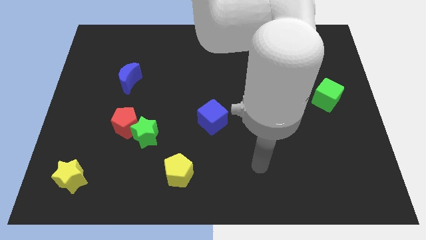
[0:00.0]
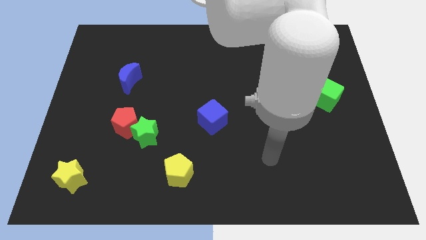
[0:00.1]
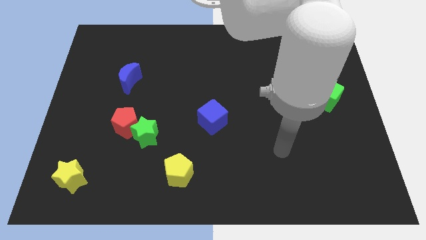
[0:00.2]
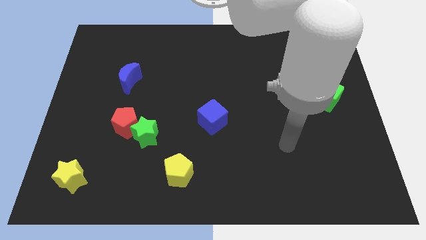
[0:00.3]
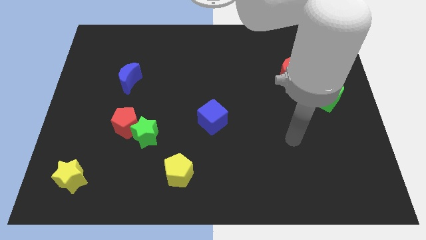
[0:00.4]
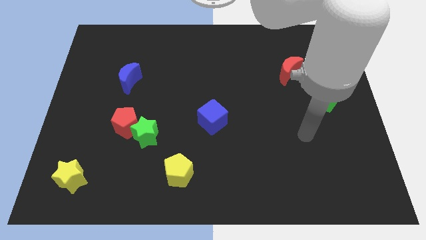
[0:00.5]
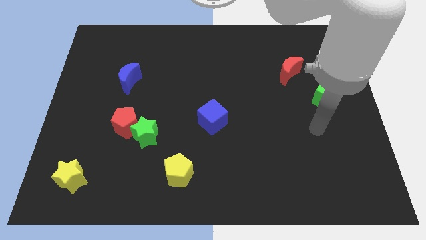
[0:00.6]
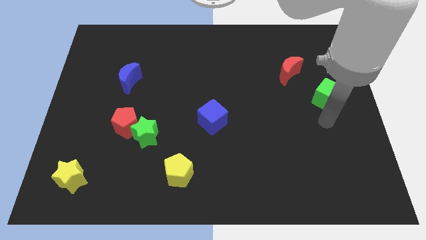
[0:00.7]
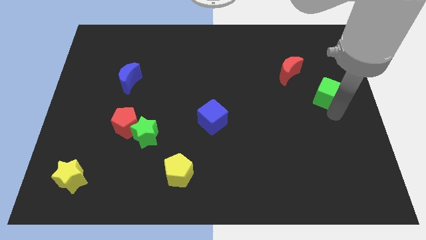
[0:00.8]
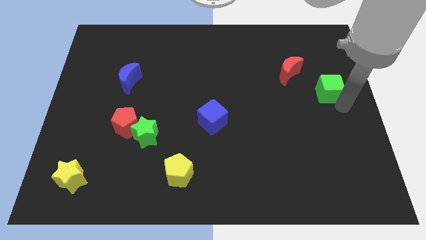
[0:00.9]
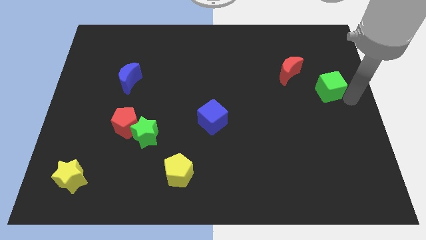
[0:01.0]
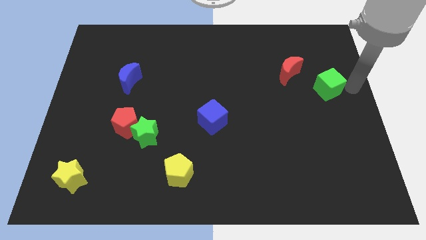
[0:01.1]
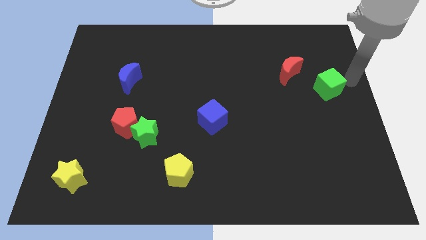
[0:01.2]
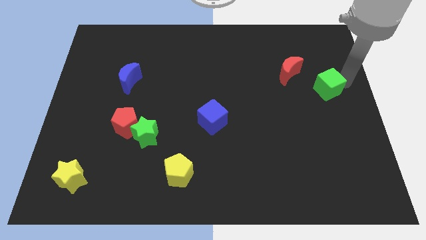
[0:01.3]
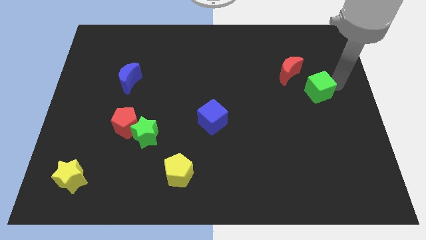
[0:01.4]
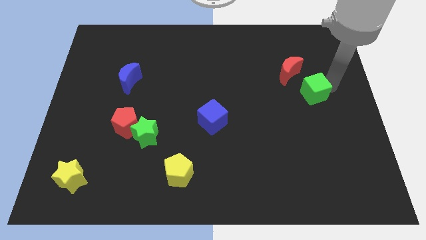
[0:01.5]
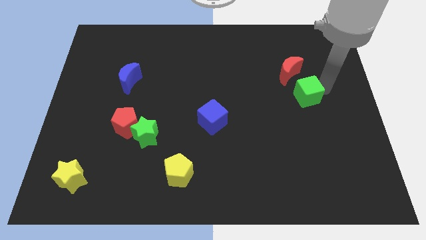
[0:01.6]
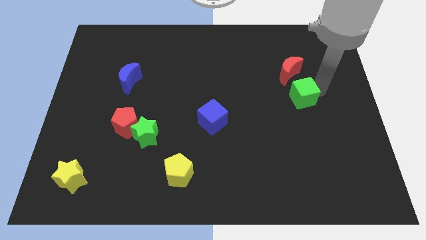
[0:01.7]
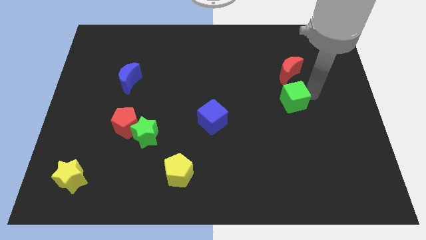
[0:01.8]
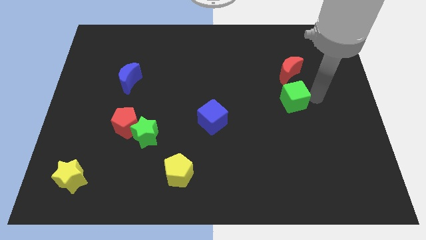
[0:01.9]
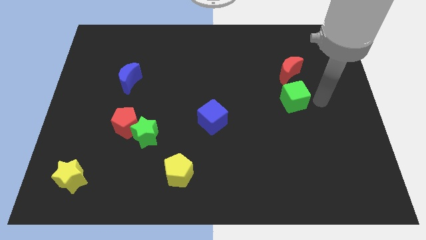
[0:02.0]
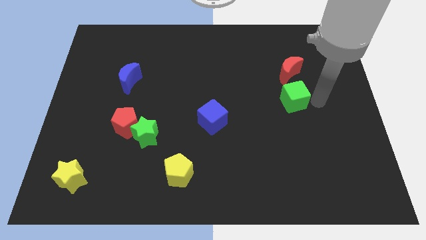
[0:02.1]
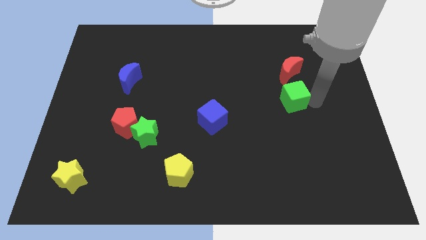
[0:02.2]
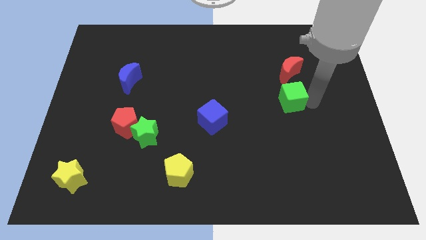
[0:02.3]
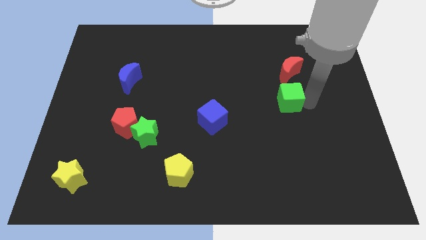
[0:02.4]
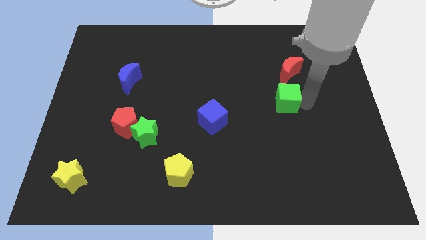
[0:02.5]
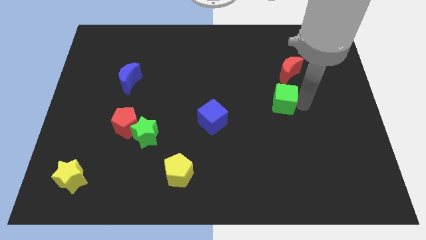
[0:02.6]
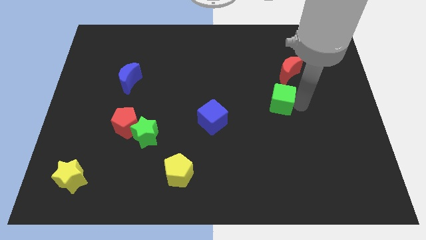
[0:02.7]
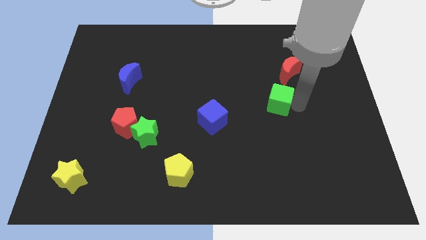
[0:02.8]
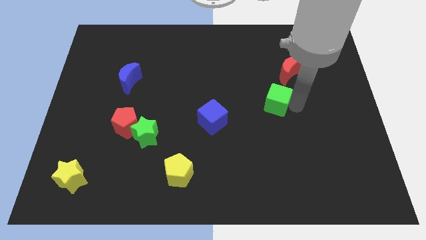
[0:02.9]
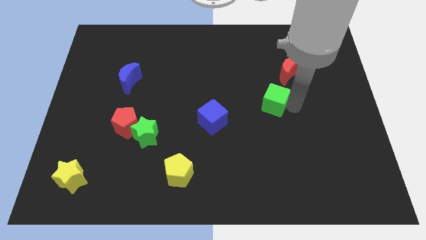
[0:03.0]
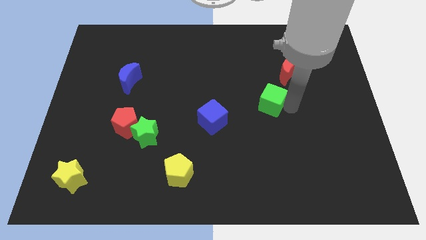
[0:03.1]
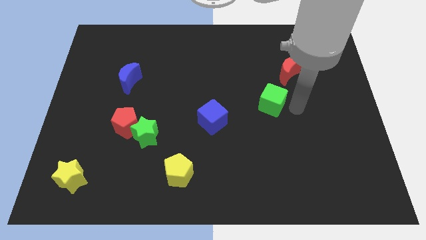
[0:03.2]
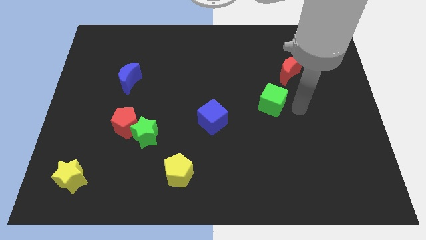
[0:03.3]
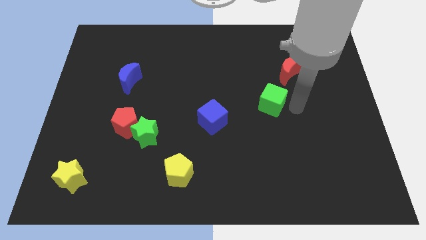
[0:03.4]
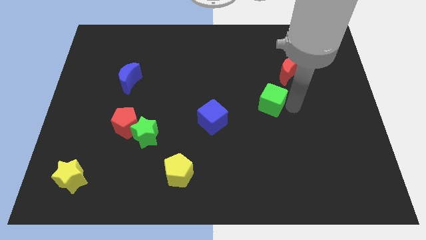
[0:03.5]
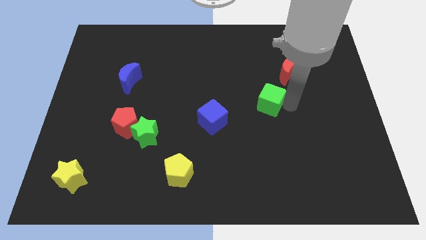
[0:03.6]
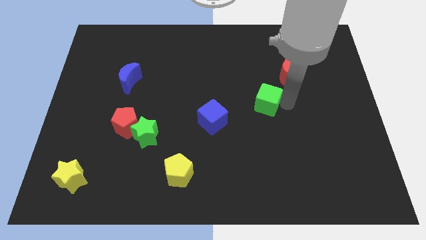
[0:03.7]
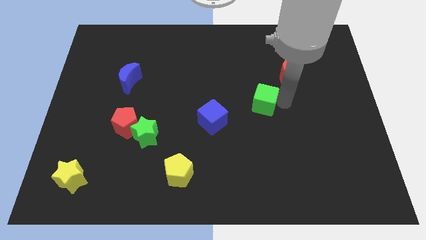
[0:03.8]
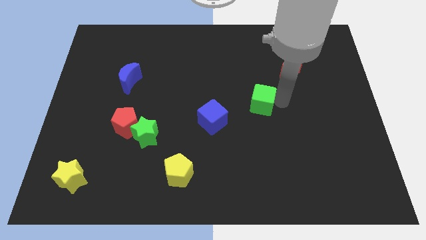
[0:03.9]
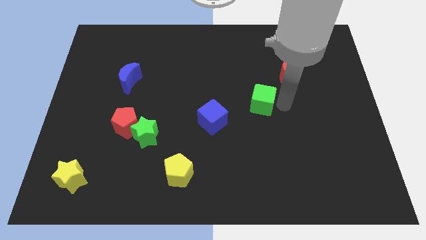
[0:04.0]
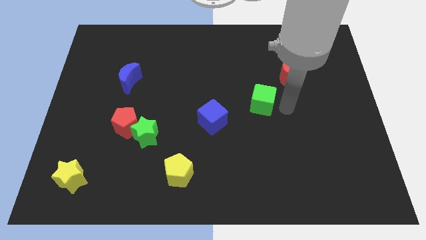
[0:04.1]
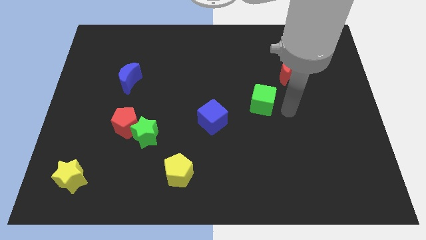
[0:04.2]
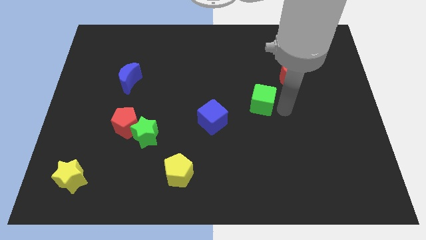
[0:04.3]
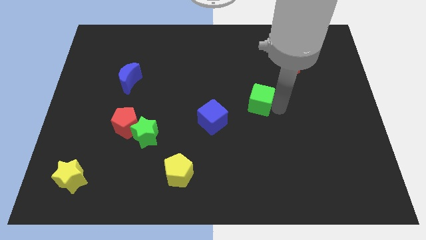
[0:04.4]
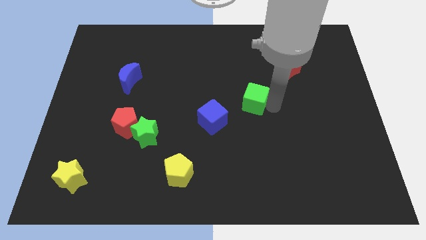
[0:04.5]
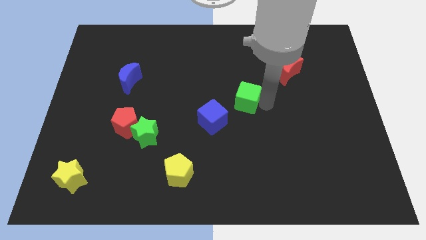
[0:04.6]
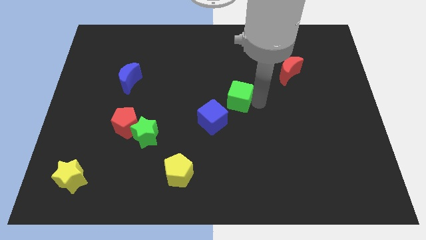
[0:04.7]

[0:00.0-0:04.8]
move the green cube left

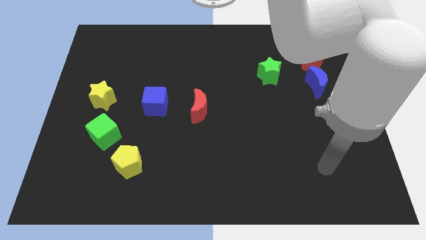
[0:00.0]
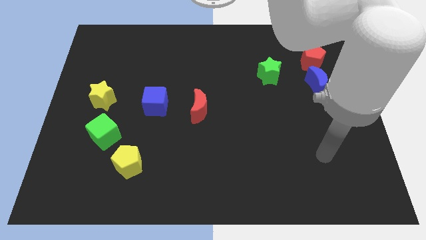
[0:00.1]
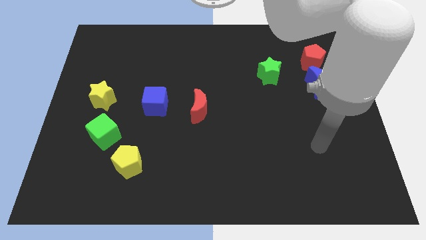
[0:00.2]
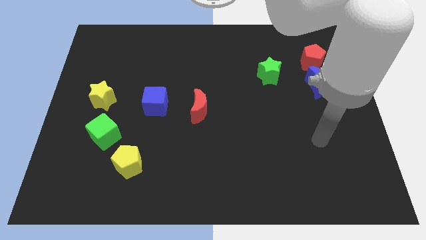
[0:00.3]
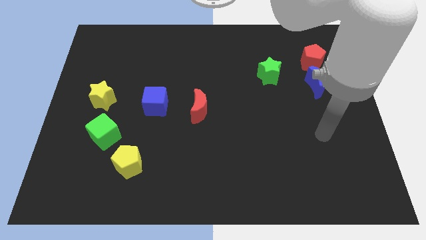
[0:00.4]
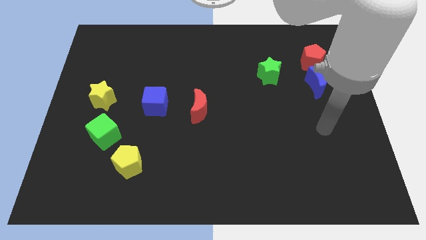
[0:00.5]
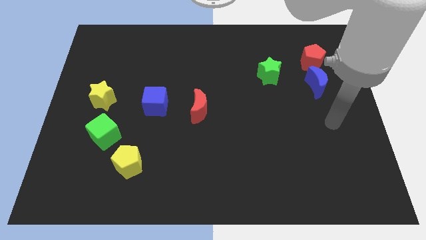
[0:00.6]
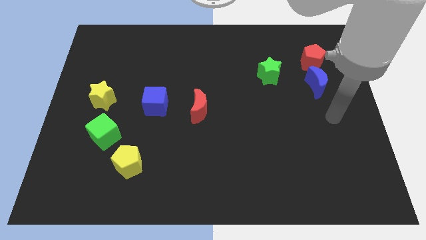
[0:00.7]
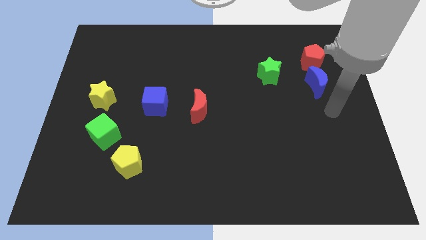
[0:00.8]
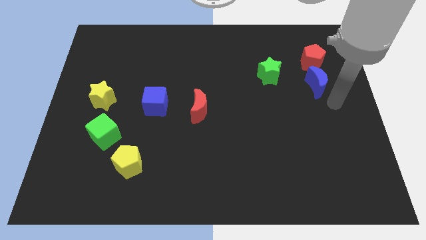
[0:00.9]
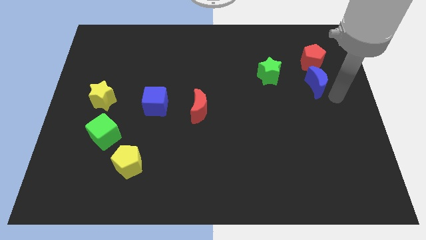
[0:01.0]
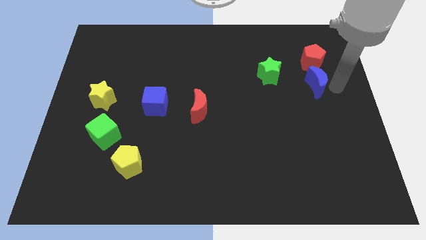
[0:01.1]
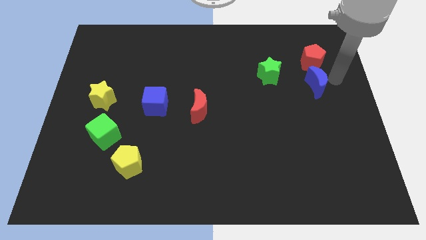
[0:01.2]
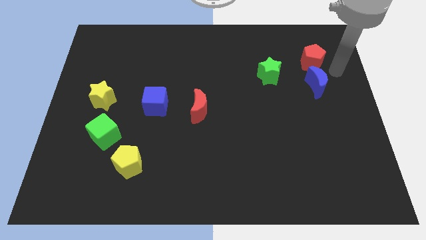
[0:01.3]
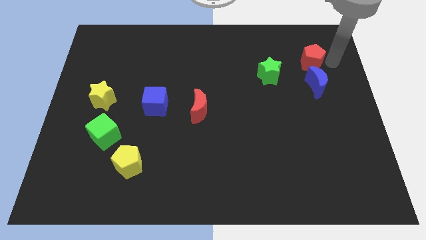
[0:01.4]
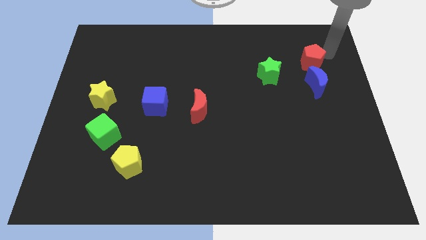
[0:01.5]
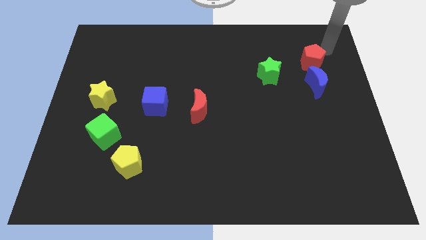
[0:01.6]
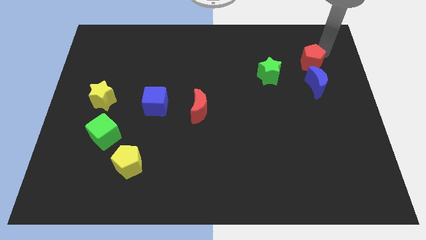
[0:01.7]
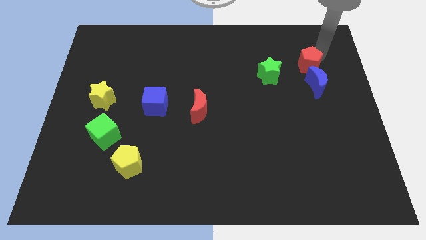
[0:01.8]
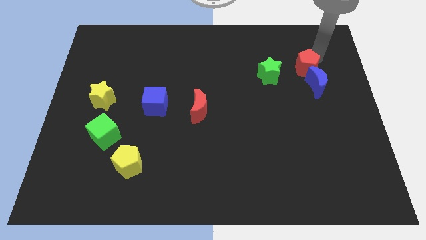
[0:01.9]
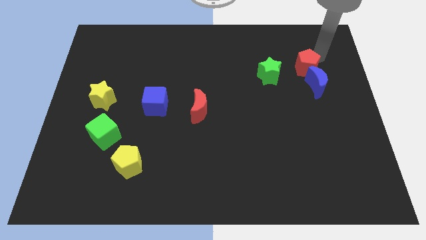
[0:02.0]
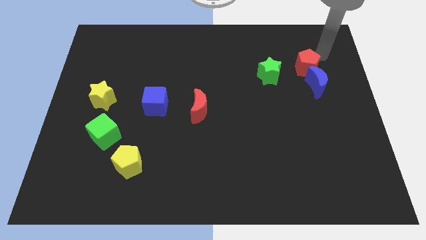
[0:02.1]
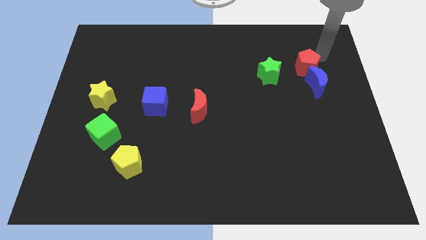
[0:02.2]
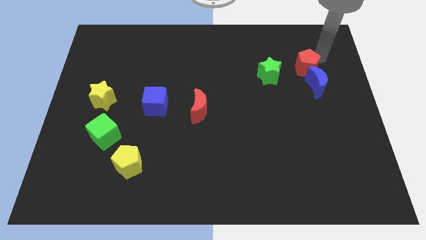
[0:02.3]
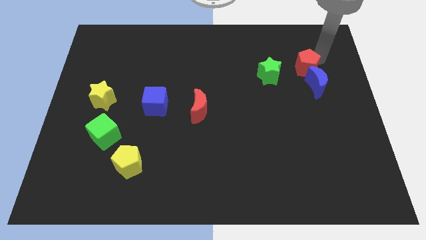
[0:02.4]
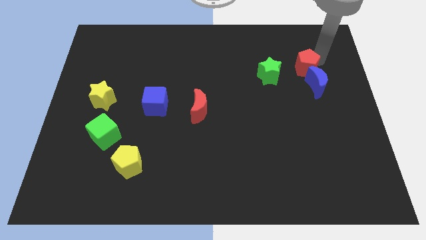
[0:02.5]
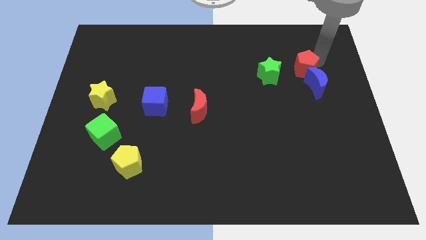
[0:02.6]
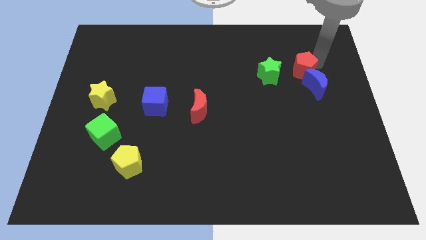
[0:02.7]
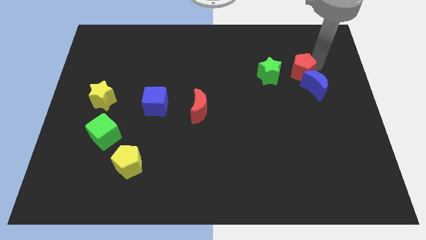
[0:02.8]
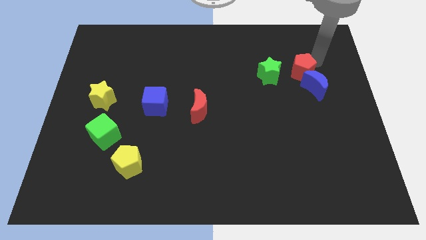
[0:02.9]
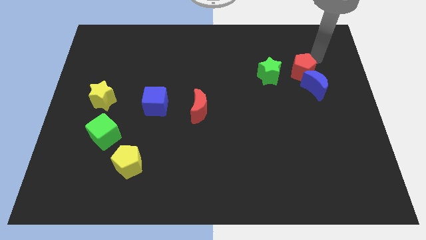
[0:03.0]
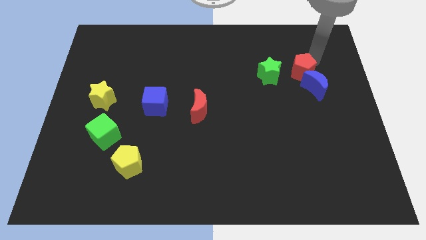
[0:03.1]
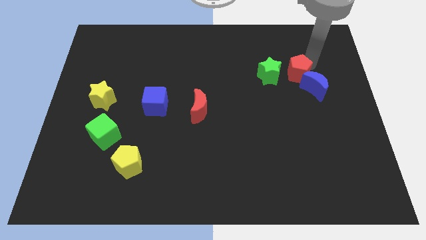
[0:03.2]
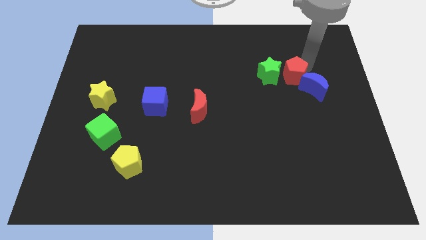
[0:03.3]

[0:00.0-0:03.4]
move the red pentagon downwards and to the left slightly
